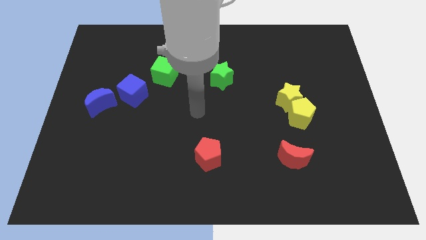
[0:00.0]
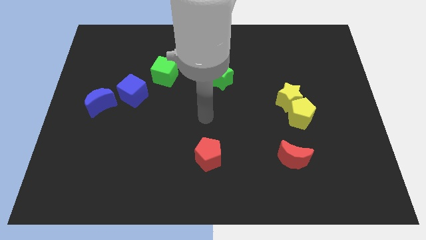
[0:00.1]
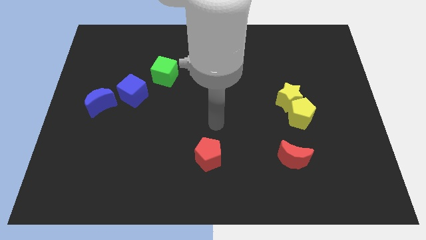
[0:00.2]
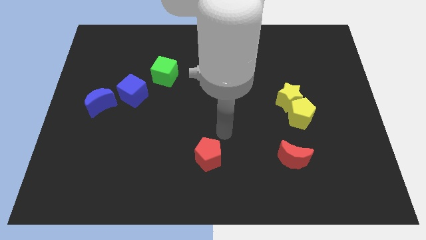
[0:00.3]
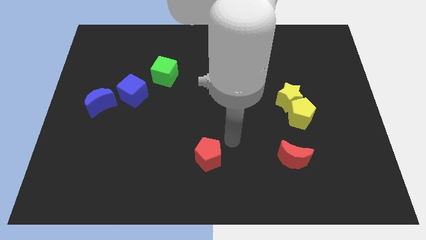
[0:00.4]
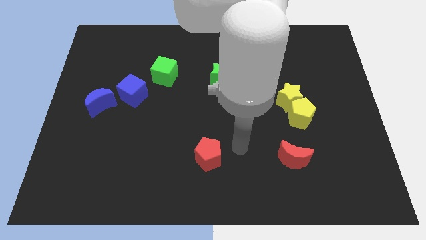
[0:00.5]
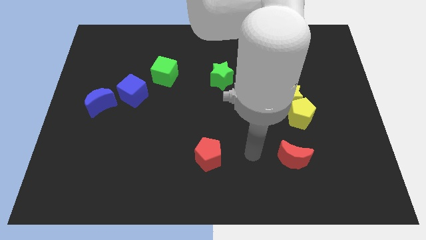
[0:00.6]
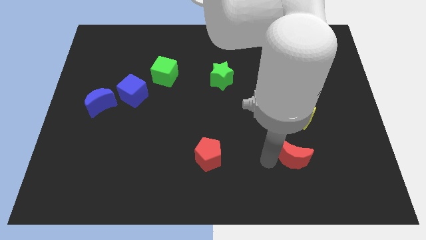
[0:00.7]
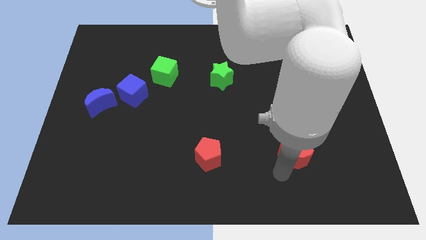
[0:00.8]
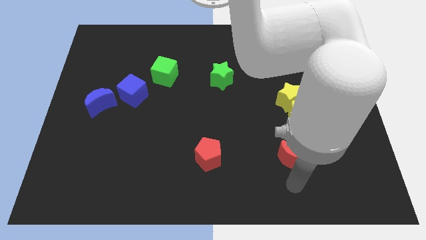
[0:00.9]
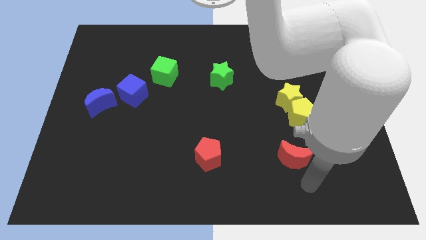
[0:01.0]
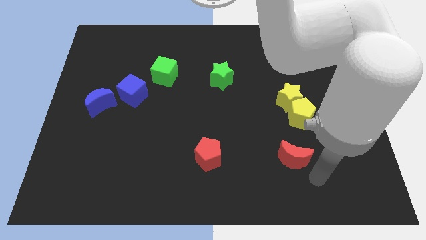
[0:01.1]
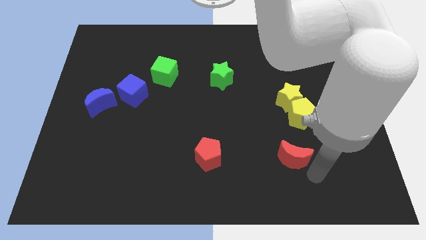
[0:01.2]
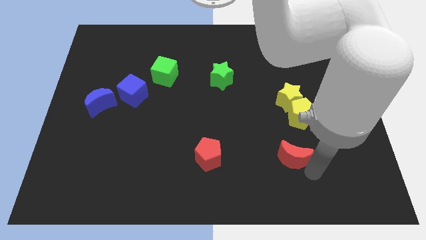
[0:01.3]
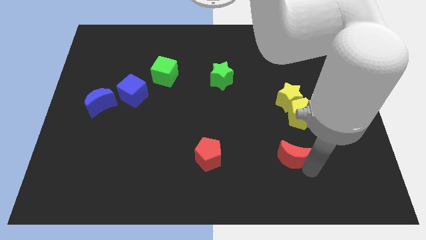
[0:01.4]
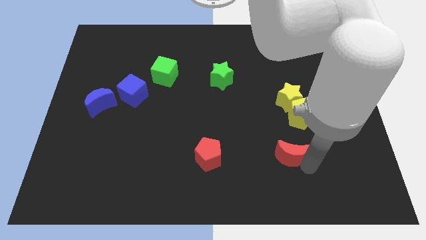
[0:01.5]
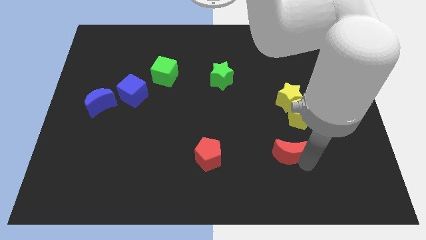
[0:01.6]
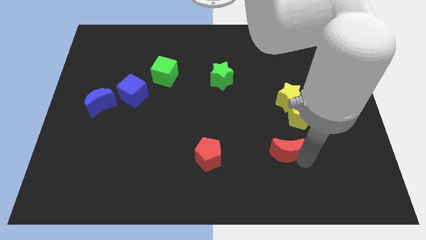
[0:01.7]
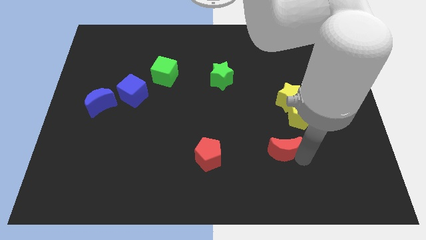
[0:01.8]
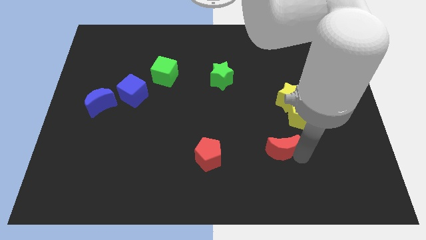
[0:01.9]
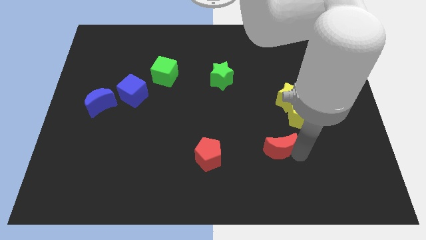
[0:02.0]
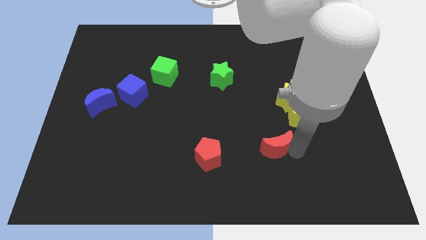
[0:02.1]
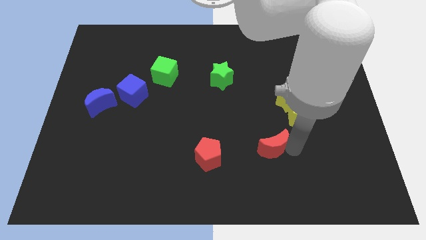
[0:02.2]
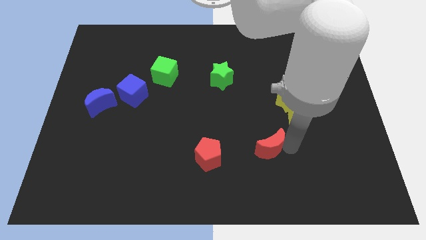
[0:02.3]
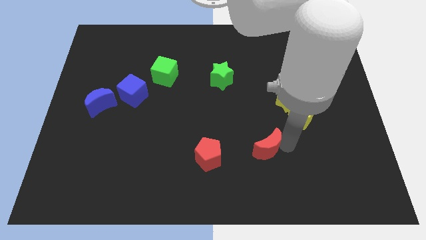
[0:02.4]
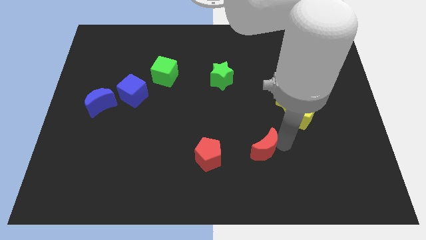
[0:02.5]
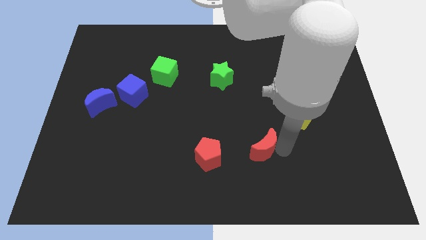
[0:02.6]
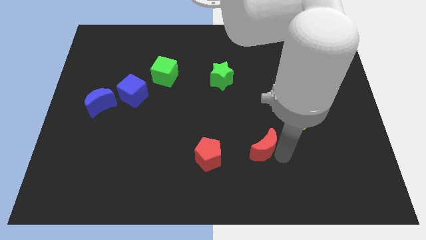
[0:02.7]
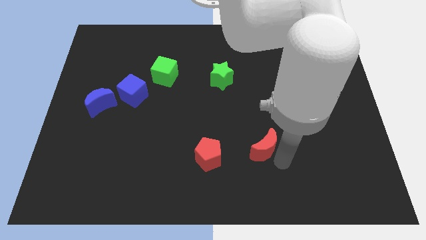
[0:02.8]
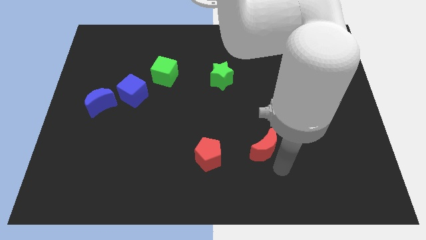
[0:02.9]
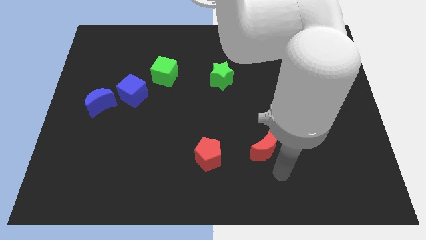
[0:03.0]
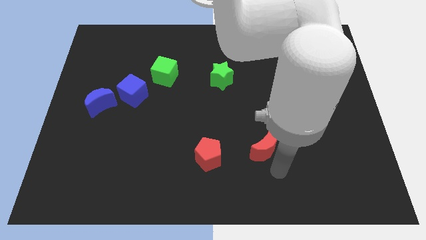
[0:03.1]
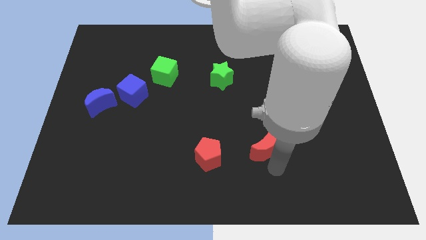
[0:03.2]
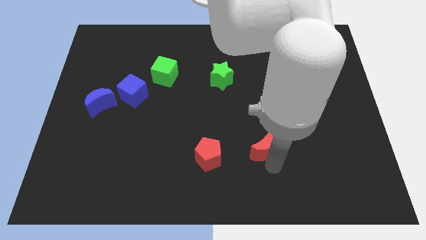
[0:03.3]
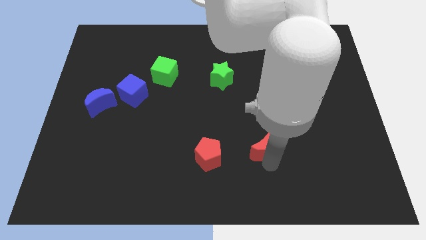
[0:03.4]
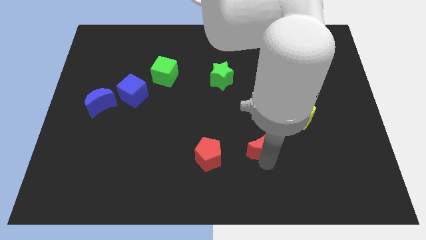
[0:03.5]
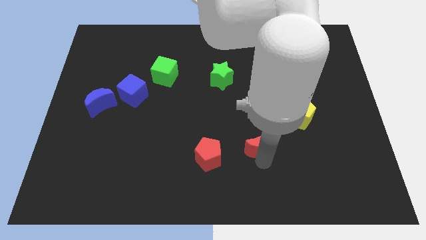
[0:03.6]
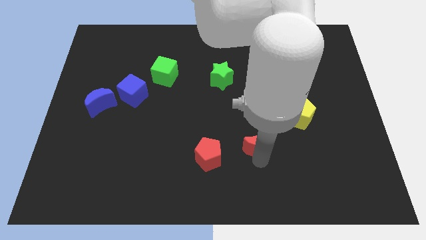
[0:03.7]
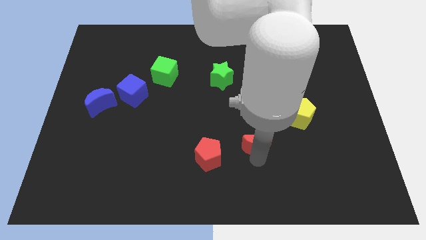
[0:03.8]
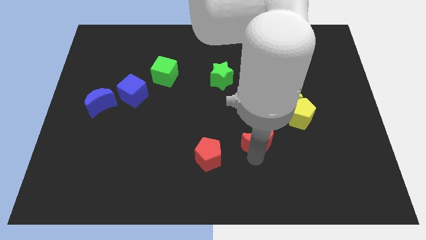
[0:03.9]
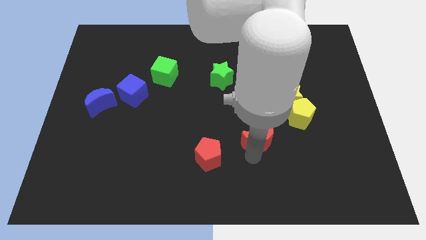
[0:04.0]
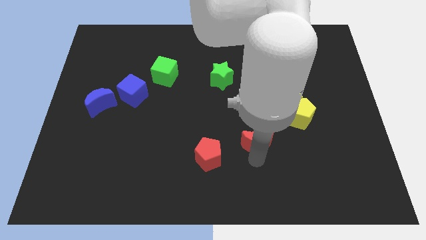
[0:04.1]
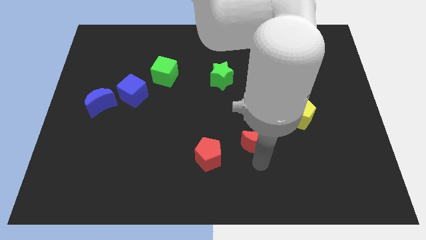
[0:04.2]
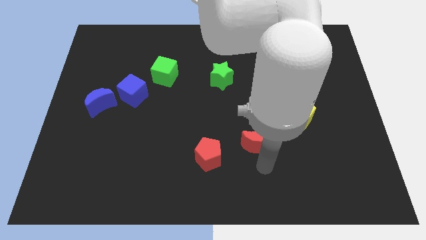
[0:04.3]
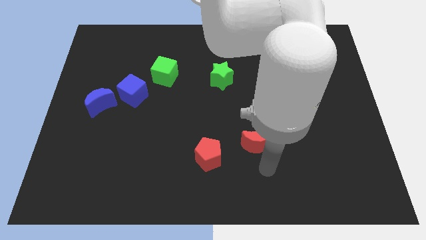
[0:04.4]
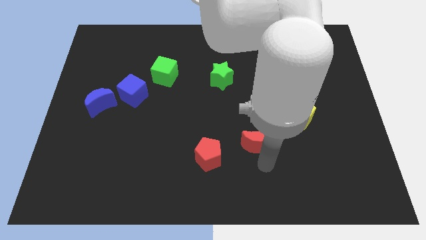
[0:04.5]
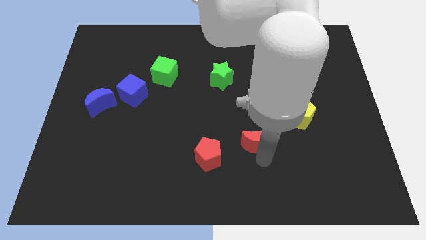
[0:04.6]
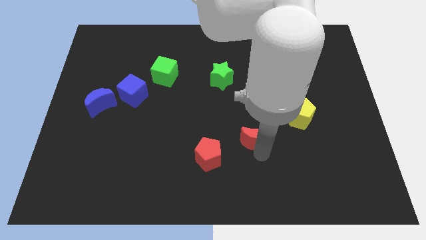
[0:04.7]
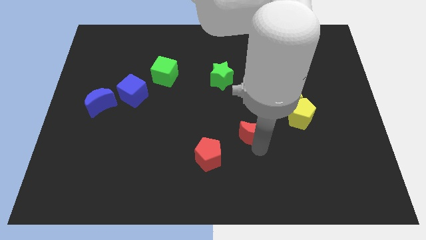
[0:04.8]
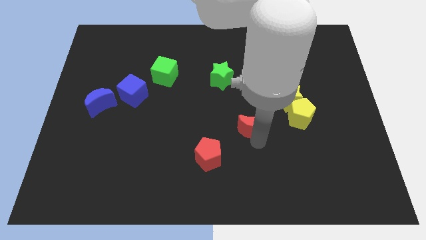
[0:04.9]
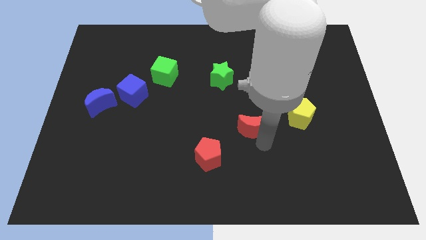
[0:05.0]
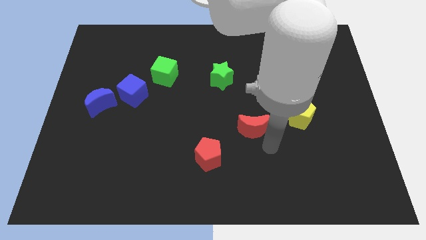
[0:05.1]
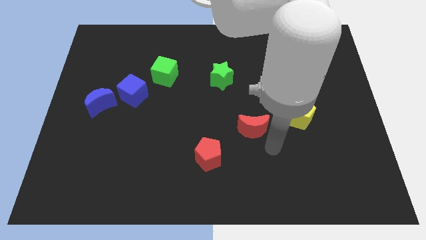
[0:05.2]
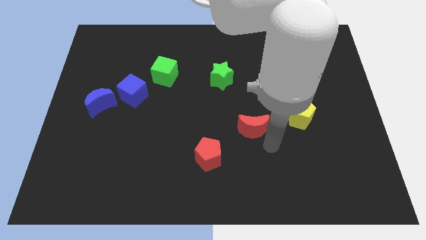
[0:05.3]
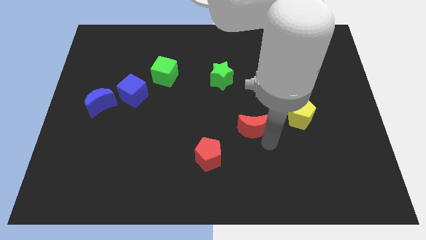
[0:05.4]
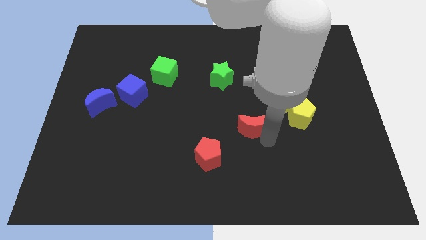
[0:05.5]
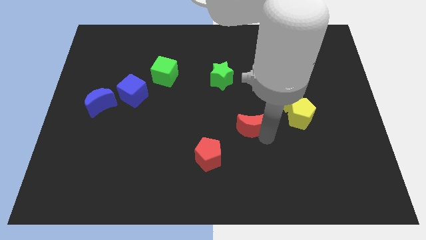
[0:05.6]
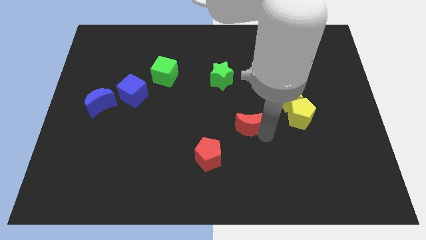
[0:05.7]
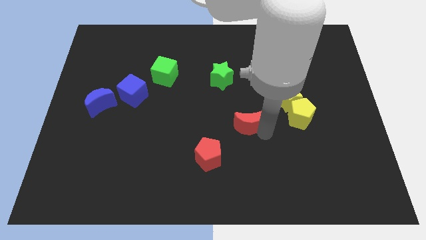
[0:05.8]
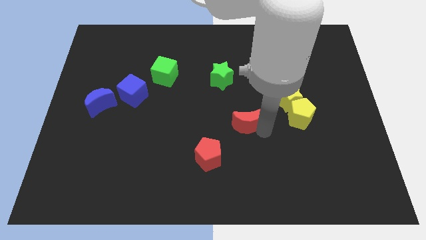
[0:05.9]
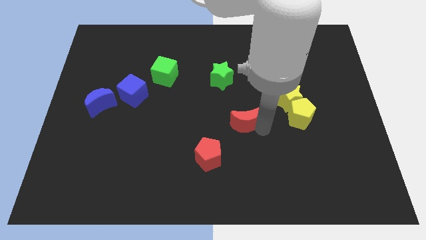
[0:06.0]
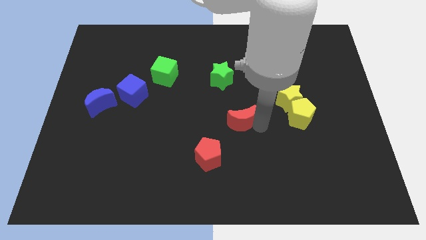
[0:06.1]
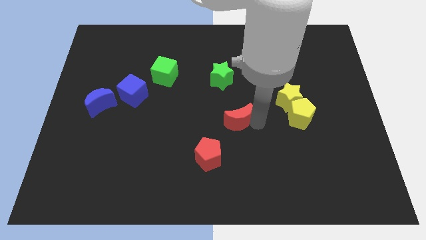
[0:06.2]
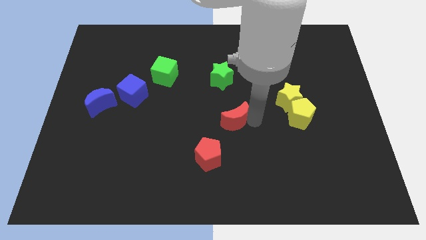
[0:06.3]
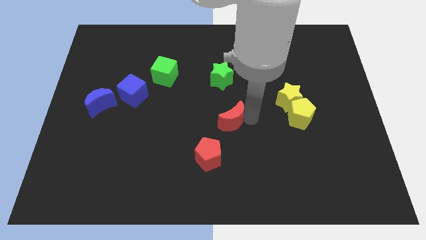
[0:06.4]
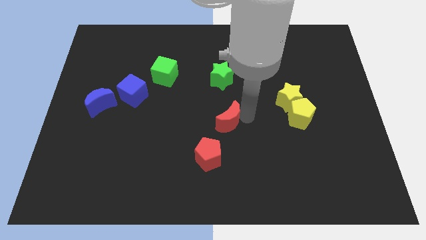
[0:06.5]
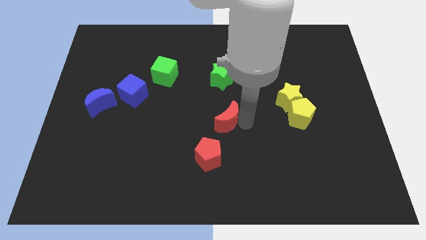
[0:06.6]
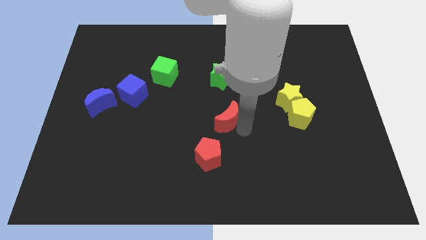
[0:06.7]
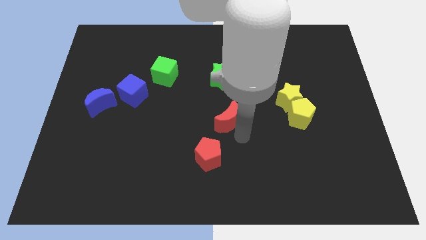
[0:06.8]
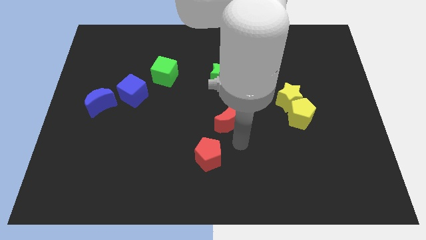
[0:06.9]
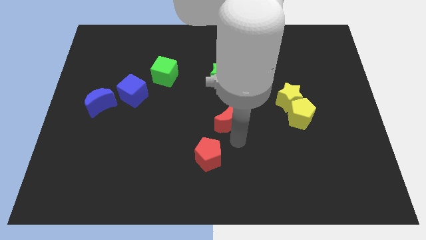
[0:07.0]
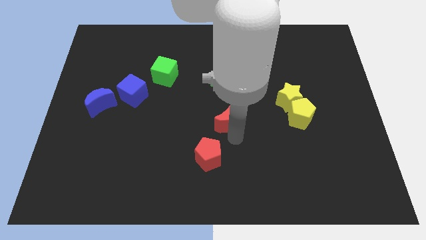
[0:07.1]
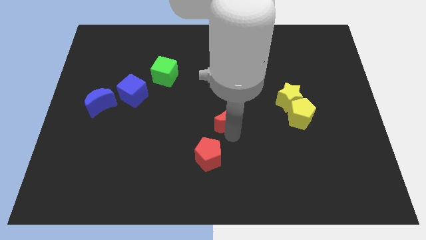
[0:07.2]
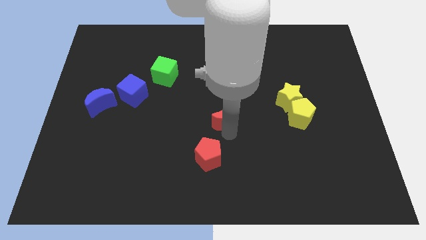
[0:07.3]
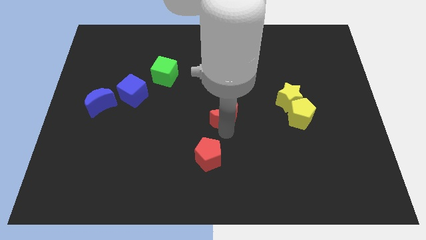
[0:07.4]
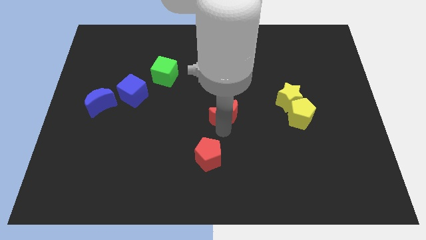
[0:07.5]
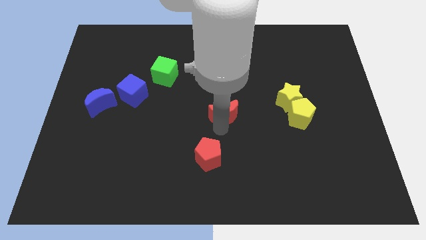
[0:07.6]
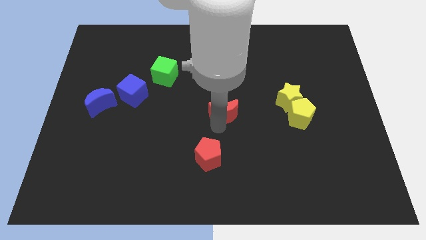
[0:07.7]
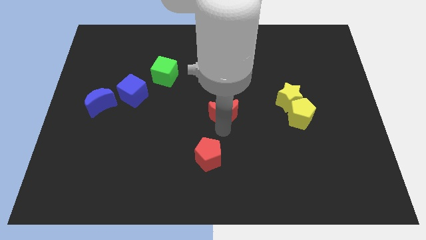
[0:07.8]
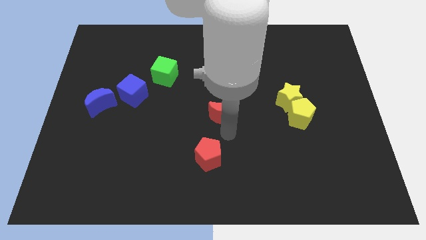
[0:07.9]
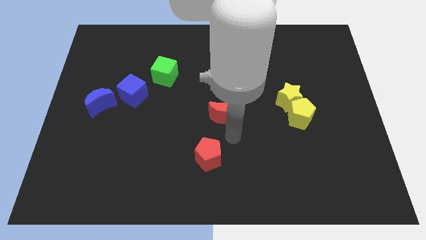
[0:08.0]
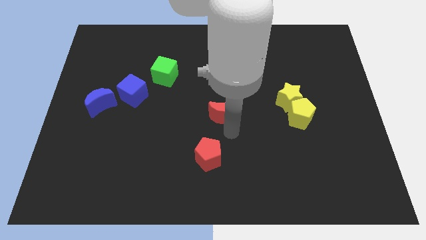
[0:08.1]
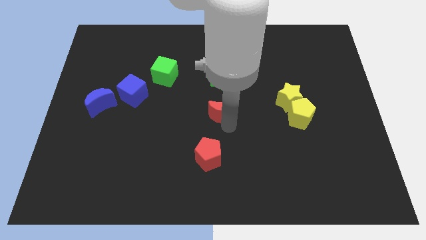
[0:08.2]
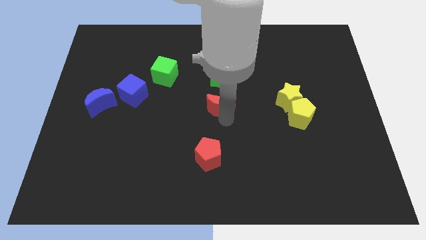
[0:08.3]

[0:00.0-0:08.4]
move the red moon up and to the left
